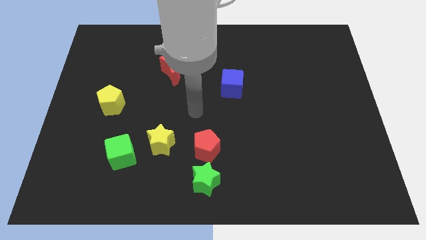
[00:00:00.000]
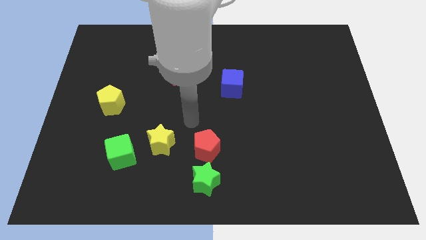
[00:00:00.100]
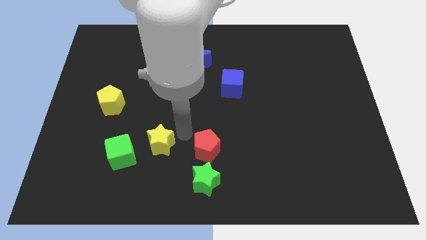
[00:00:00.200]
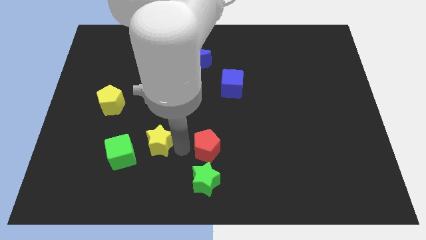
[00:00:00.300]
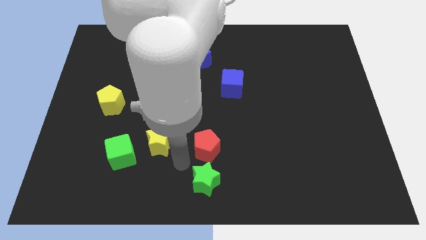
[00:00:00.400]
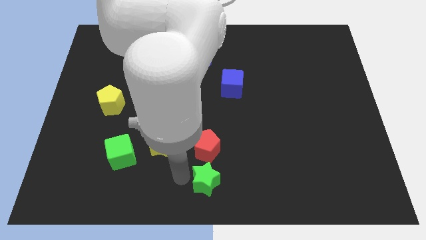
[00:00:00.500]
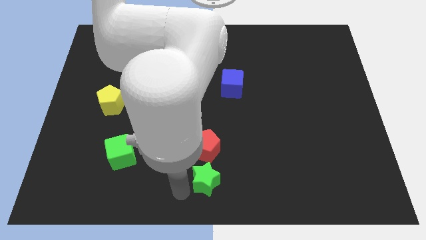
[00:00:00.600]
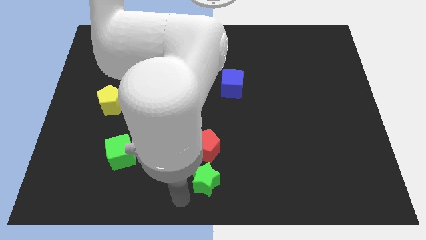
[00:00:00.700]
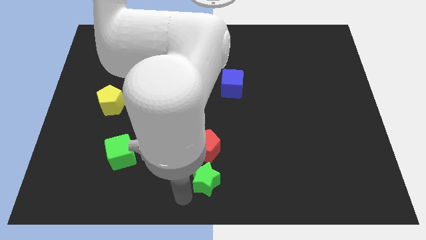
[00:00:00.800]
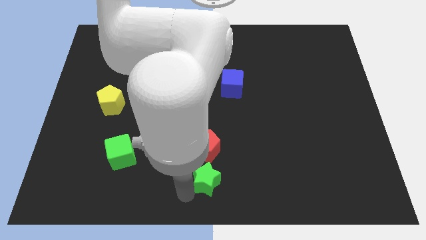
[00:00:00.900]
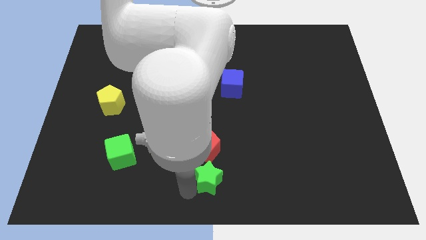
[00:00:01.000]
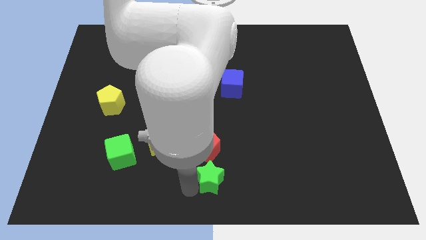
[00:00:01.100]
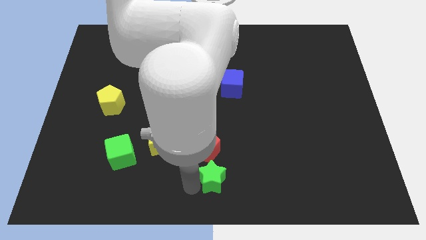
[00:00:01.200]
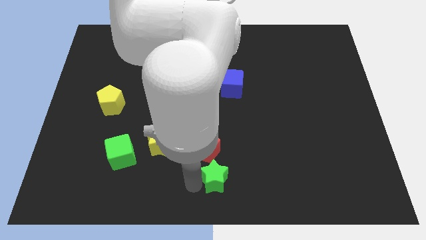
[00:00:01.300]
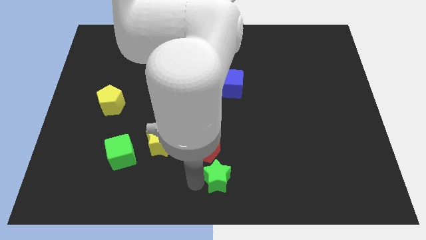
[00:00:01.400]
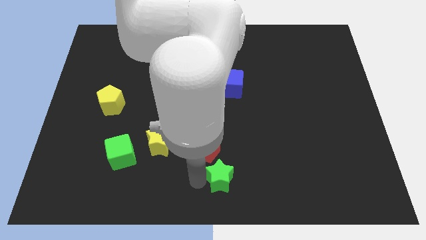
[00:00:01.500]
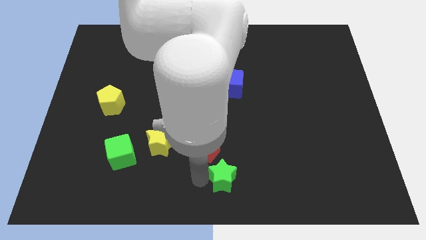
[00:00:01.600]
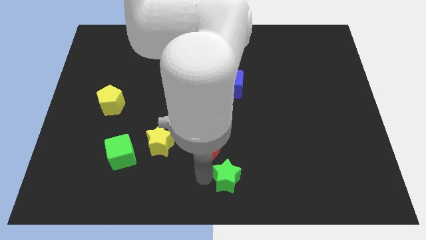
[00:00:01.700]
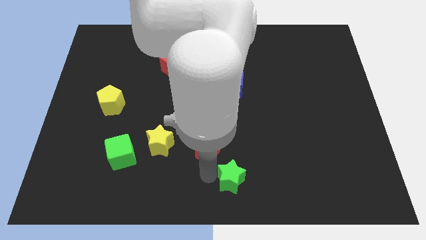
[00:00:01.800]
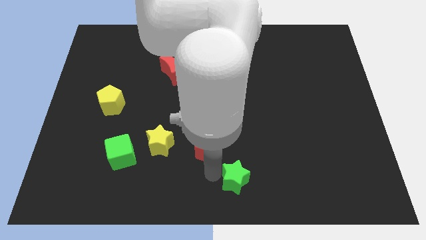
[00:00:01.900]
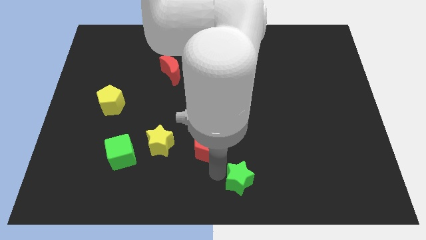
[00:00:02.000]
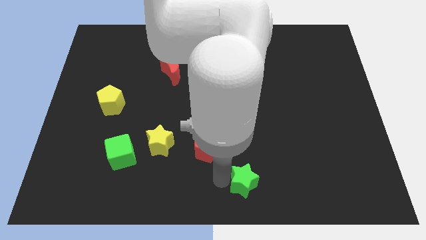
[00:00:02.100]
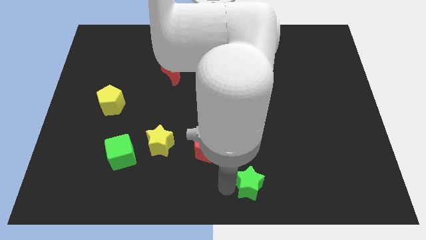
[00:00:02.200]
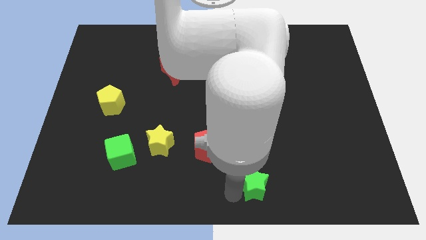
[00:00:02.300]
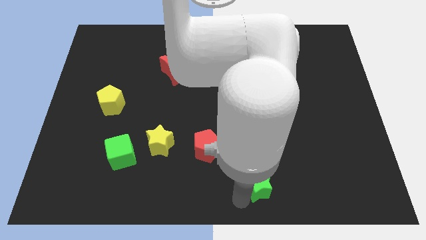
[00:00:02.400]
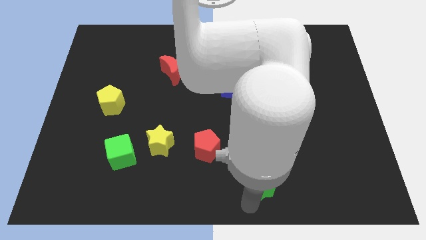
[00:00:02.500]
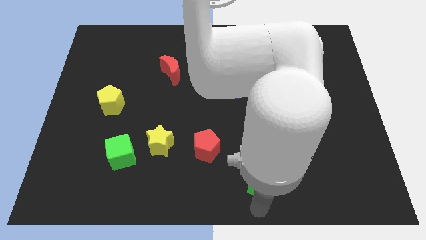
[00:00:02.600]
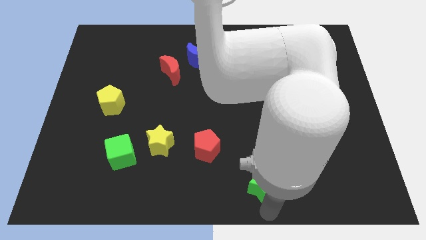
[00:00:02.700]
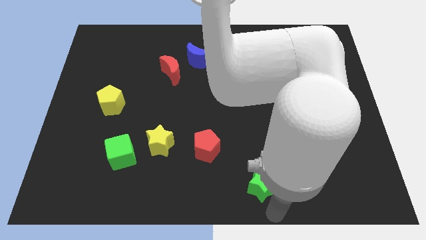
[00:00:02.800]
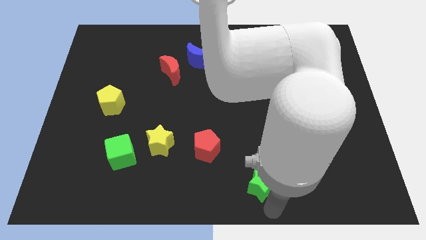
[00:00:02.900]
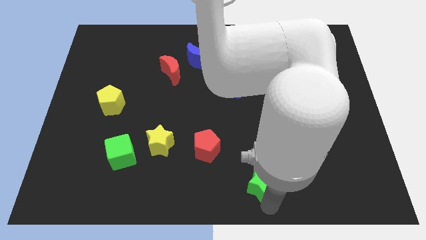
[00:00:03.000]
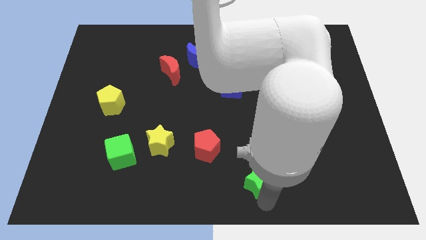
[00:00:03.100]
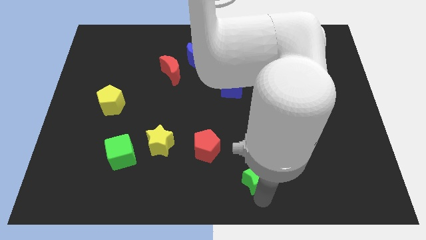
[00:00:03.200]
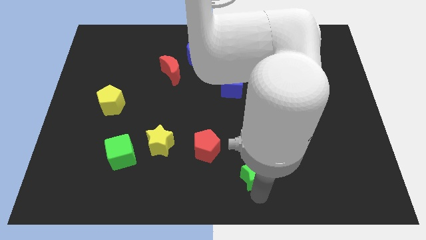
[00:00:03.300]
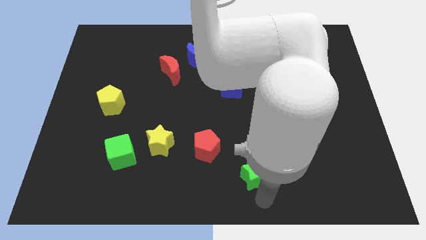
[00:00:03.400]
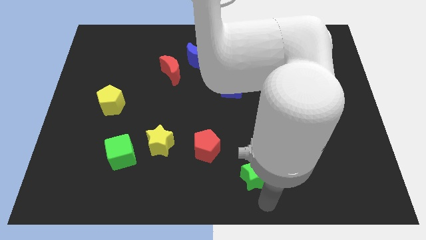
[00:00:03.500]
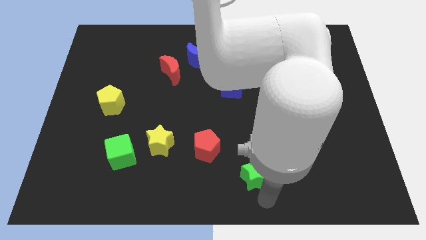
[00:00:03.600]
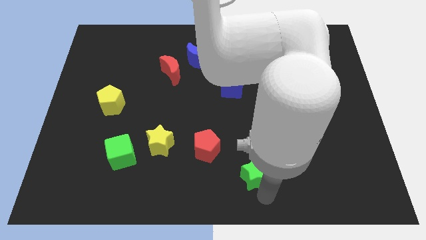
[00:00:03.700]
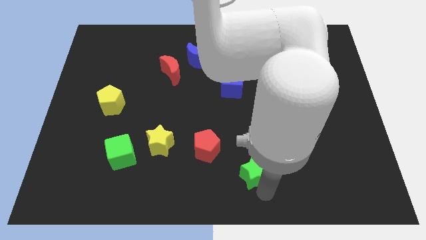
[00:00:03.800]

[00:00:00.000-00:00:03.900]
slightly push the green star upwards and to the right diagonally

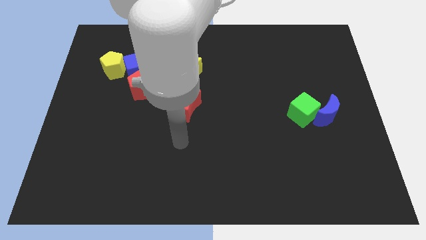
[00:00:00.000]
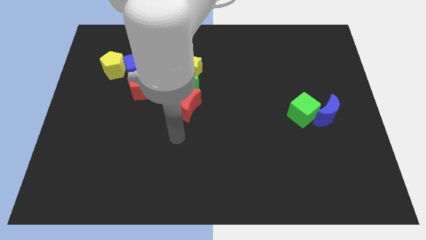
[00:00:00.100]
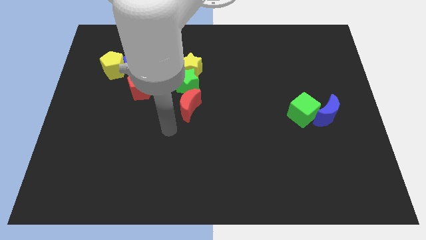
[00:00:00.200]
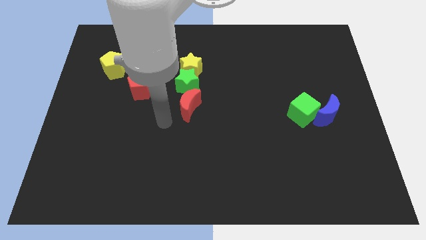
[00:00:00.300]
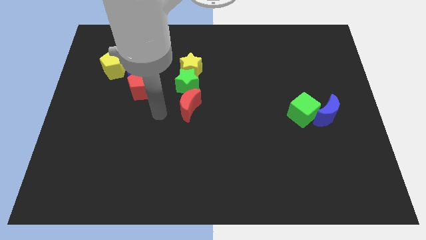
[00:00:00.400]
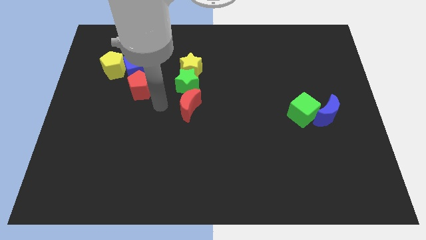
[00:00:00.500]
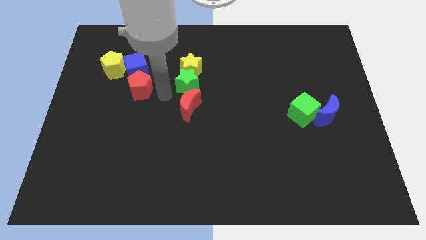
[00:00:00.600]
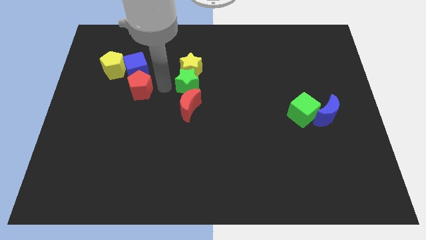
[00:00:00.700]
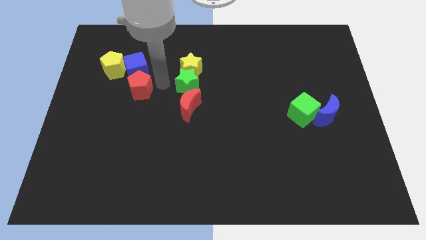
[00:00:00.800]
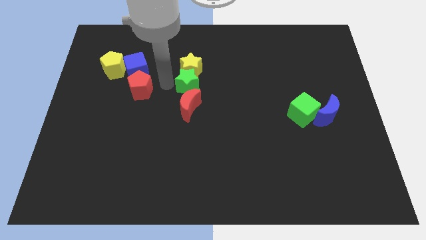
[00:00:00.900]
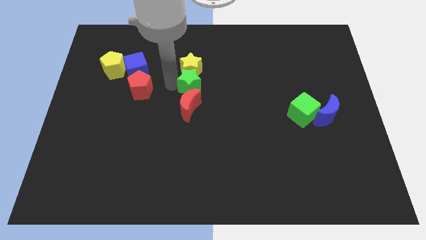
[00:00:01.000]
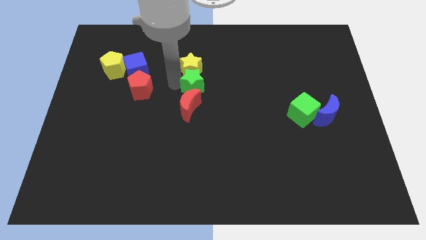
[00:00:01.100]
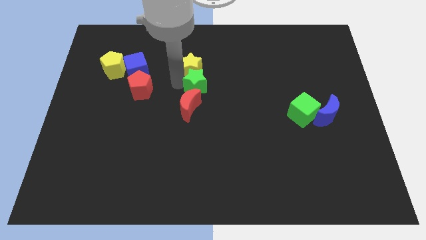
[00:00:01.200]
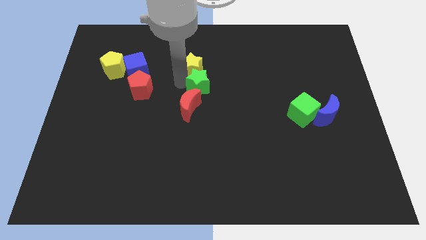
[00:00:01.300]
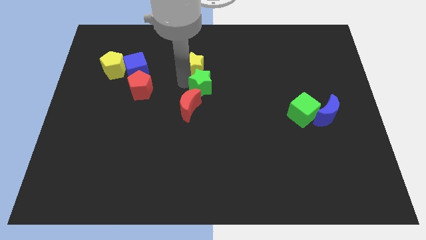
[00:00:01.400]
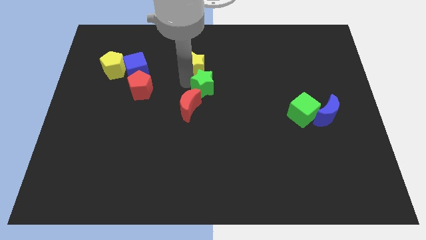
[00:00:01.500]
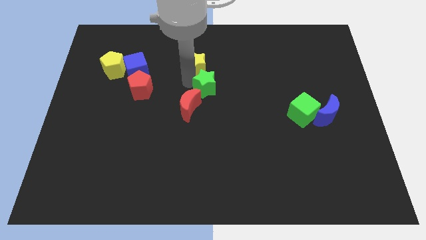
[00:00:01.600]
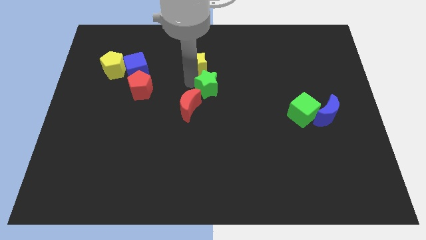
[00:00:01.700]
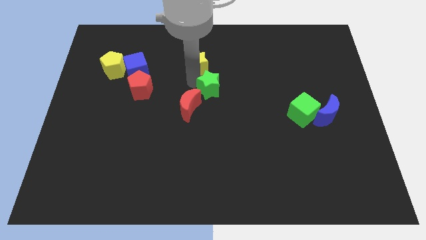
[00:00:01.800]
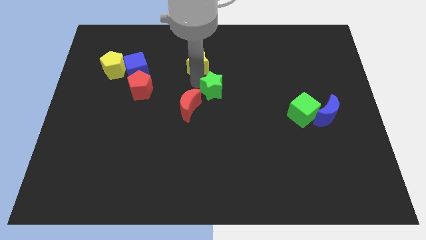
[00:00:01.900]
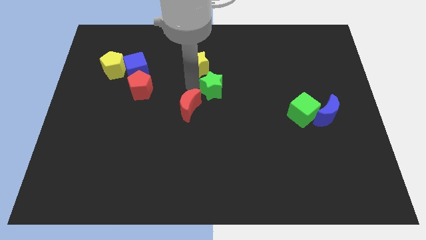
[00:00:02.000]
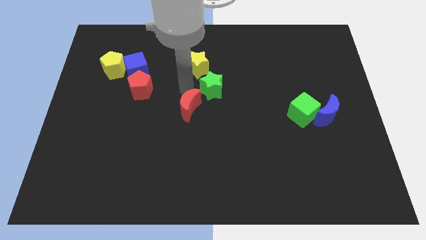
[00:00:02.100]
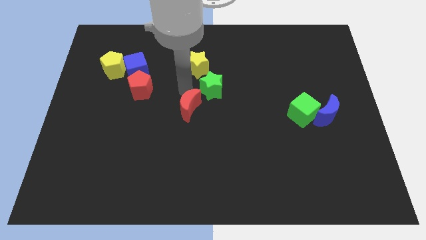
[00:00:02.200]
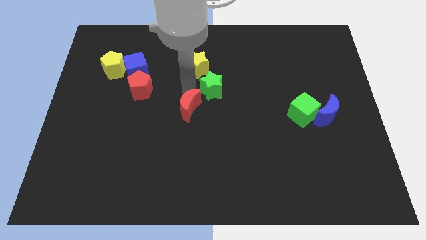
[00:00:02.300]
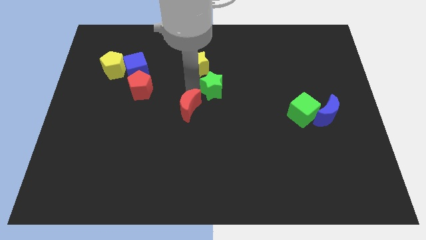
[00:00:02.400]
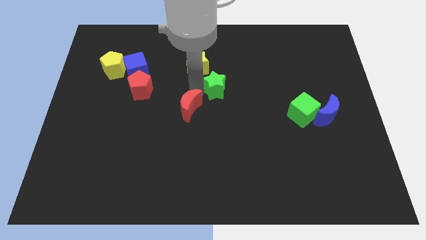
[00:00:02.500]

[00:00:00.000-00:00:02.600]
push the green star to the right a bit

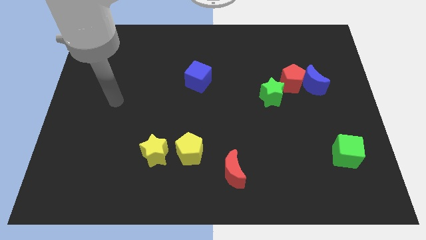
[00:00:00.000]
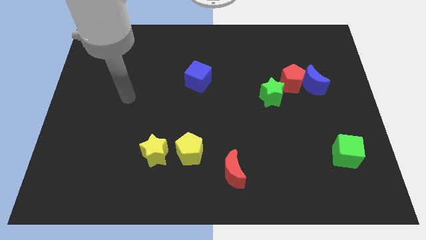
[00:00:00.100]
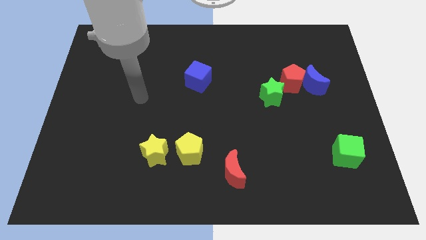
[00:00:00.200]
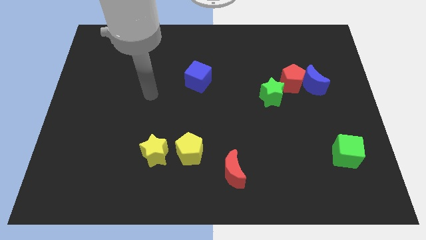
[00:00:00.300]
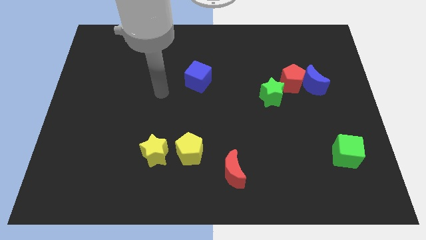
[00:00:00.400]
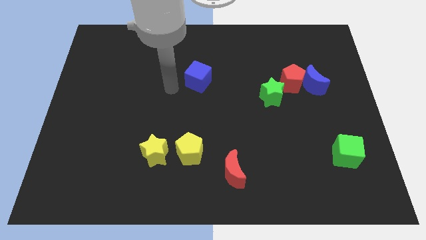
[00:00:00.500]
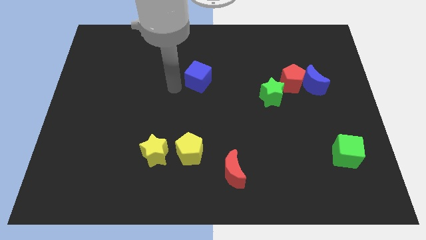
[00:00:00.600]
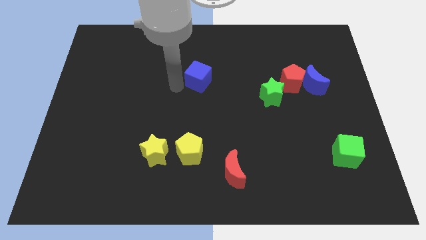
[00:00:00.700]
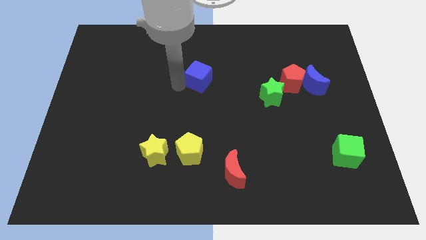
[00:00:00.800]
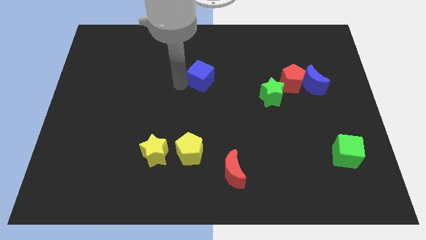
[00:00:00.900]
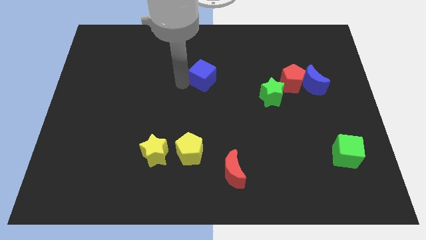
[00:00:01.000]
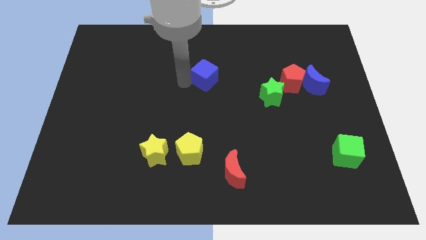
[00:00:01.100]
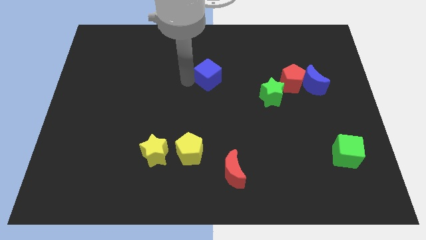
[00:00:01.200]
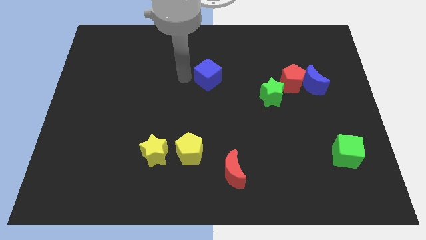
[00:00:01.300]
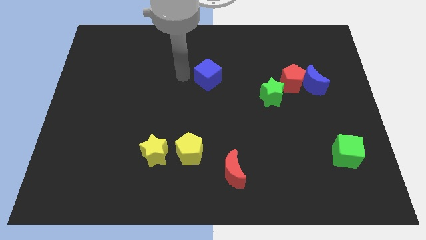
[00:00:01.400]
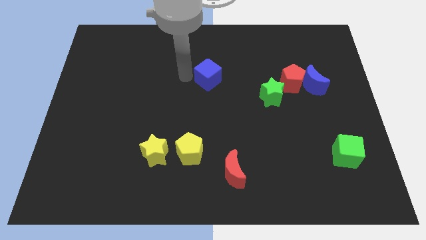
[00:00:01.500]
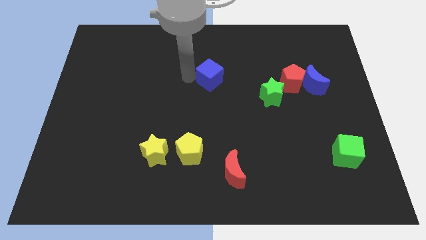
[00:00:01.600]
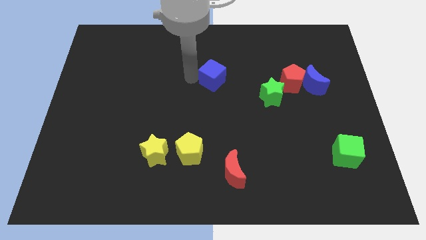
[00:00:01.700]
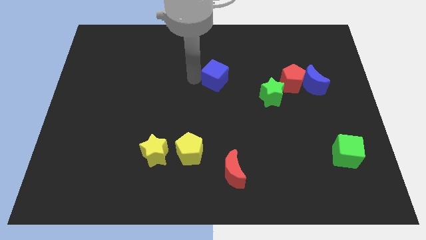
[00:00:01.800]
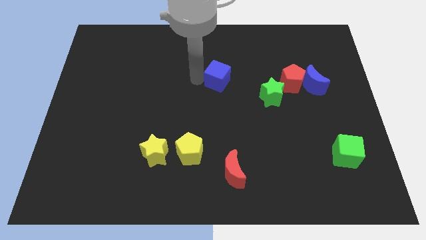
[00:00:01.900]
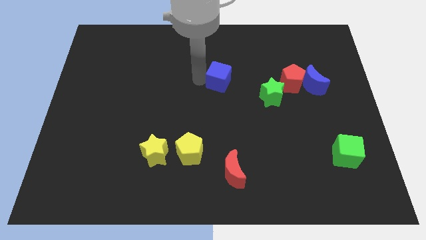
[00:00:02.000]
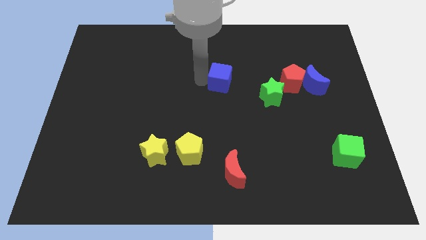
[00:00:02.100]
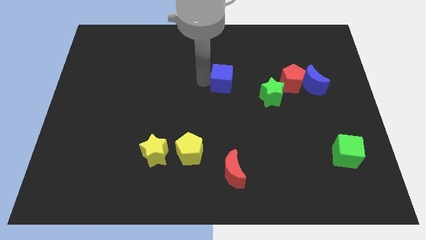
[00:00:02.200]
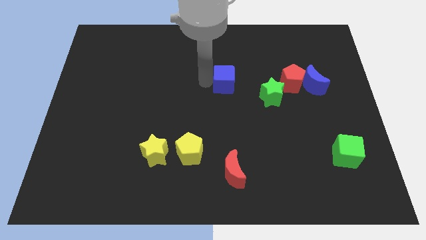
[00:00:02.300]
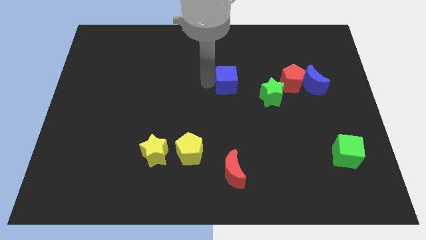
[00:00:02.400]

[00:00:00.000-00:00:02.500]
slightly push the blue cube right
